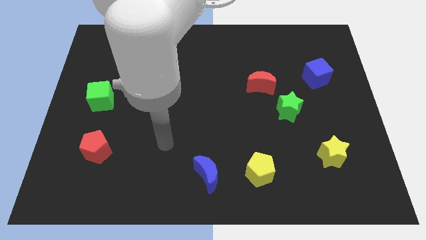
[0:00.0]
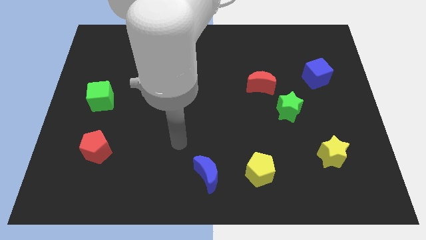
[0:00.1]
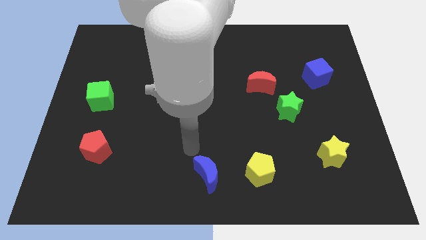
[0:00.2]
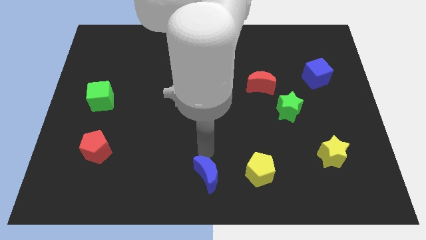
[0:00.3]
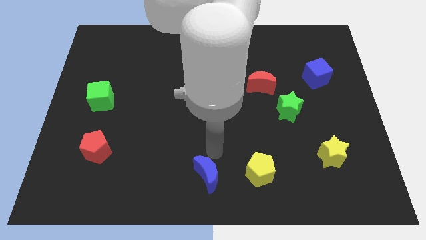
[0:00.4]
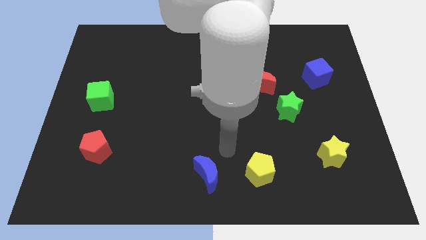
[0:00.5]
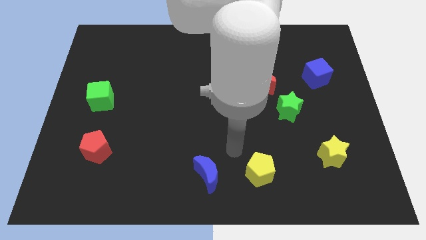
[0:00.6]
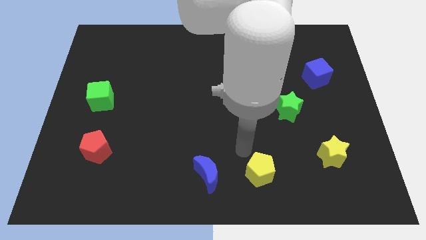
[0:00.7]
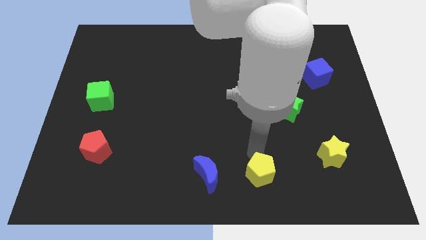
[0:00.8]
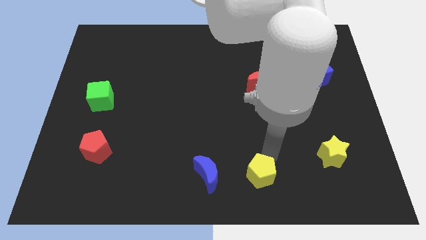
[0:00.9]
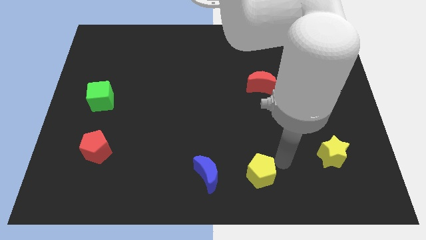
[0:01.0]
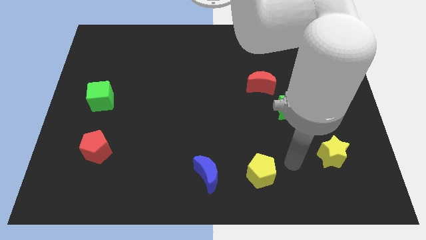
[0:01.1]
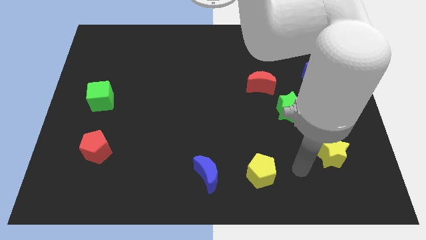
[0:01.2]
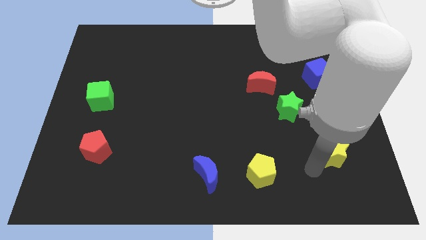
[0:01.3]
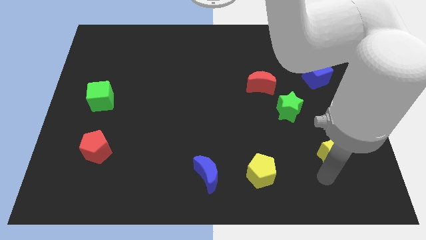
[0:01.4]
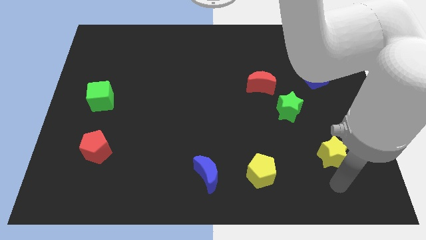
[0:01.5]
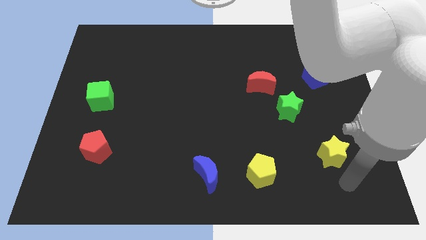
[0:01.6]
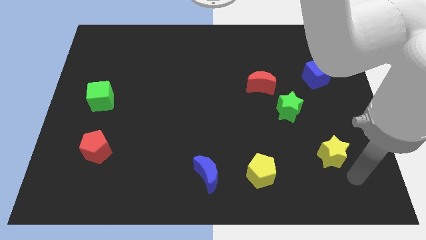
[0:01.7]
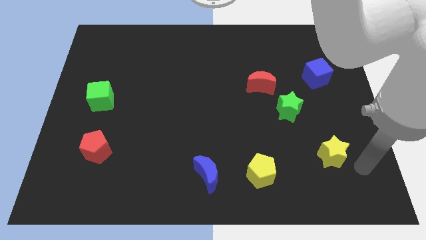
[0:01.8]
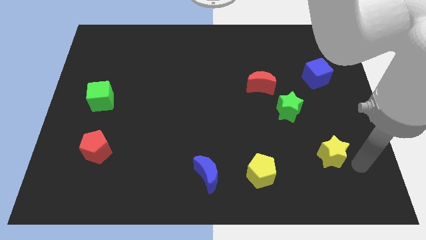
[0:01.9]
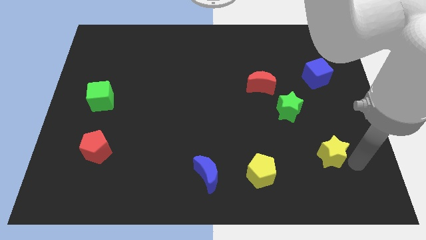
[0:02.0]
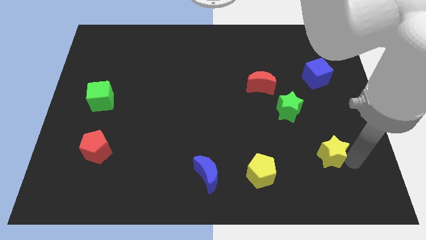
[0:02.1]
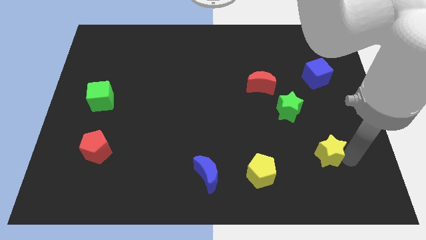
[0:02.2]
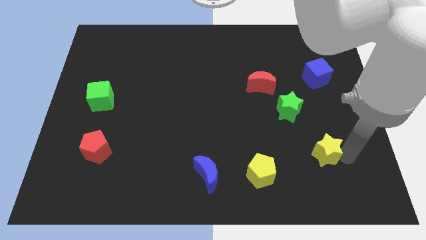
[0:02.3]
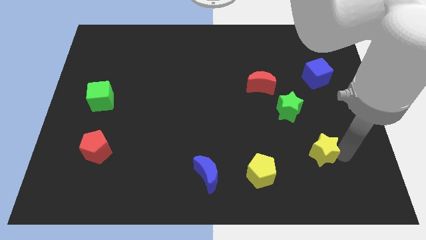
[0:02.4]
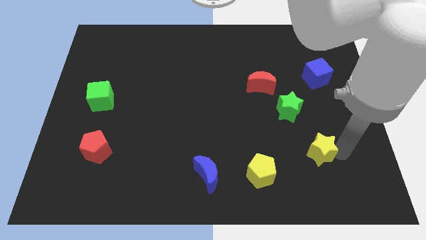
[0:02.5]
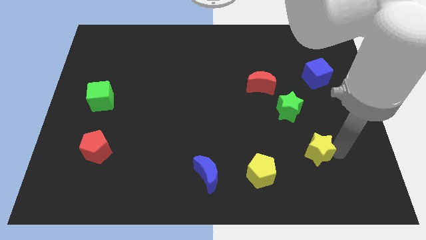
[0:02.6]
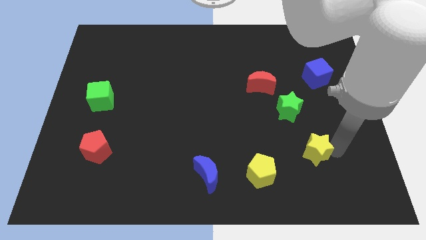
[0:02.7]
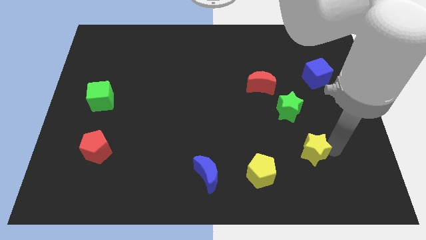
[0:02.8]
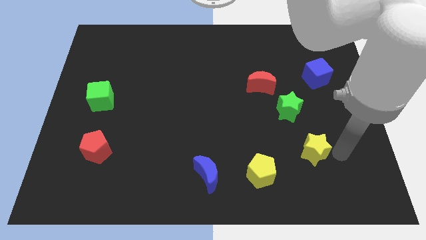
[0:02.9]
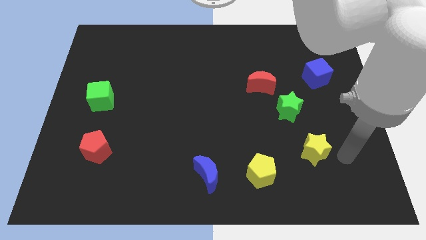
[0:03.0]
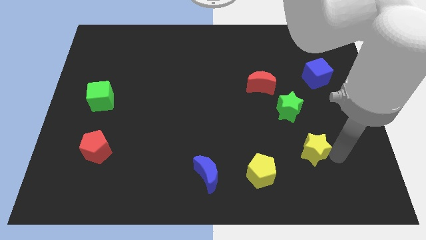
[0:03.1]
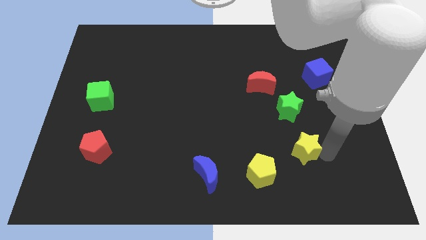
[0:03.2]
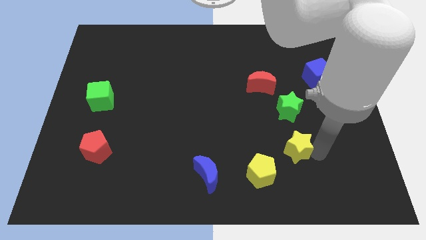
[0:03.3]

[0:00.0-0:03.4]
slide the yellow star a bit left

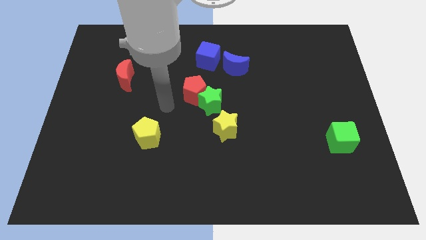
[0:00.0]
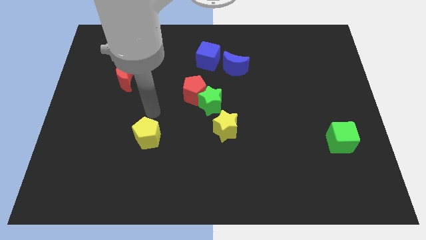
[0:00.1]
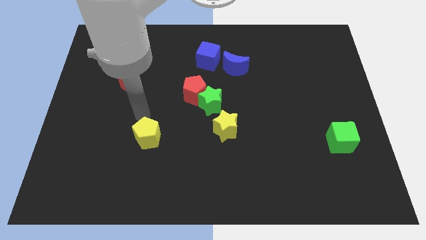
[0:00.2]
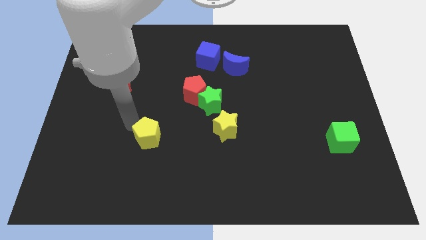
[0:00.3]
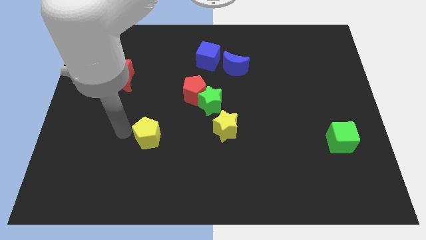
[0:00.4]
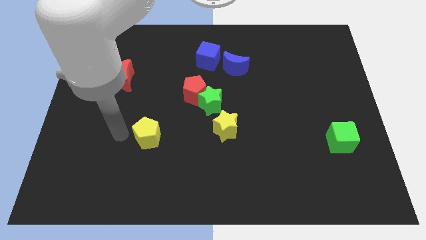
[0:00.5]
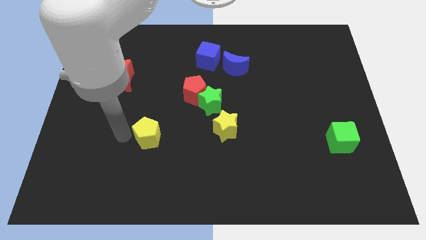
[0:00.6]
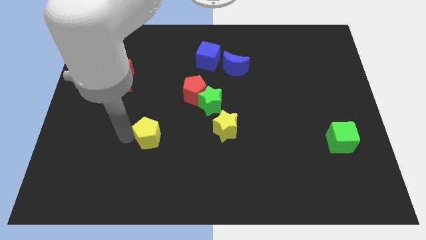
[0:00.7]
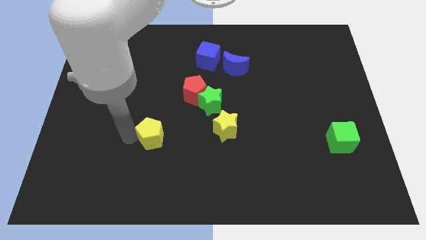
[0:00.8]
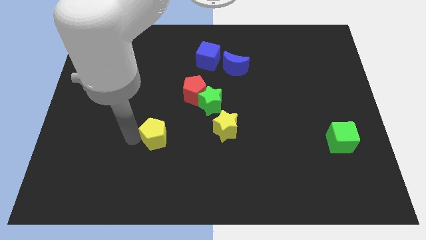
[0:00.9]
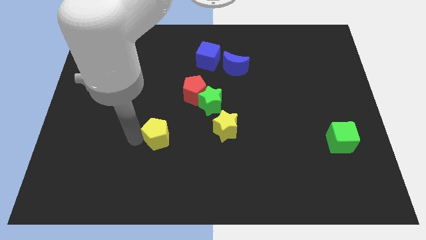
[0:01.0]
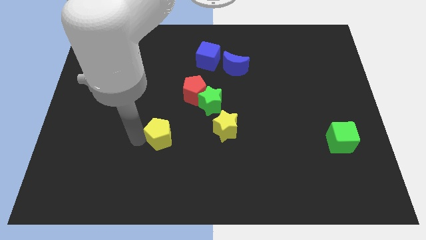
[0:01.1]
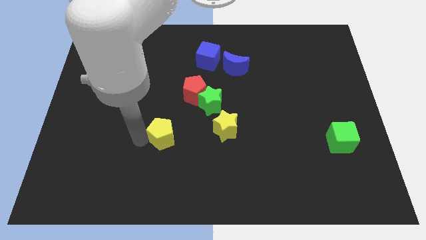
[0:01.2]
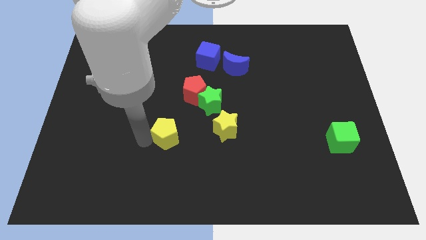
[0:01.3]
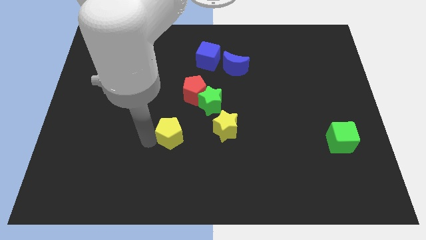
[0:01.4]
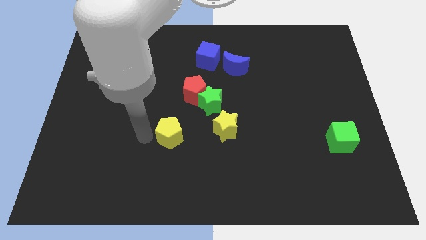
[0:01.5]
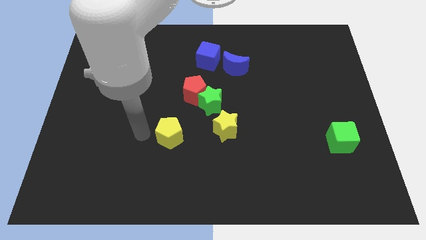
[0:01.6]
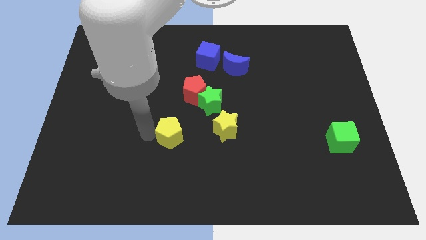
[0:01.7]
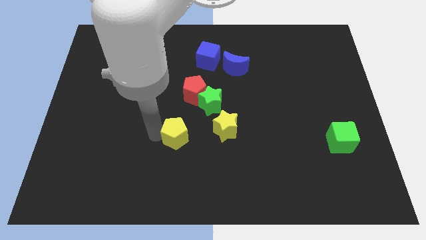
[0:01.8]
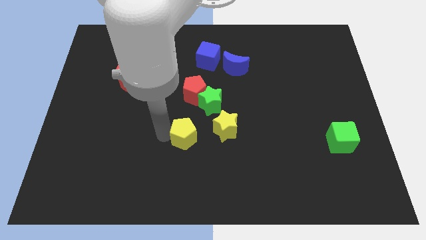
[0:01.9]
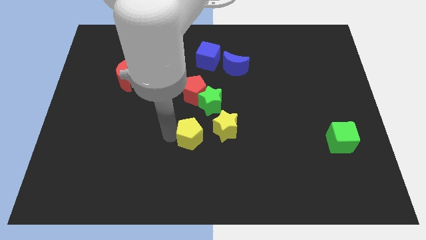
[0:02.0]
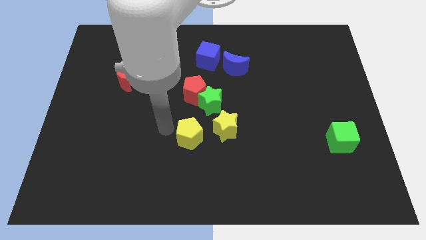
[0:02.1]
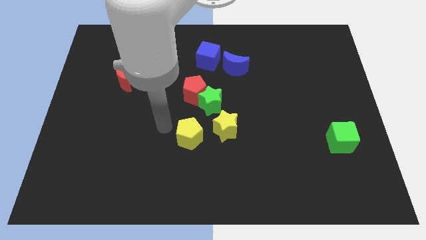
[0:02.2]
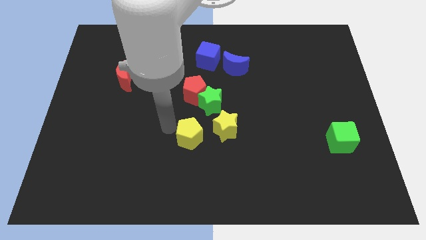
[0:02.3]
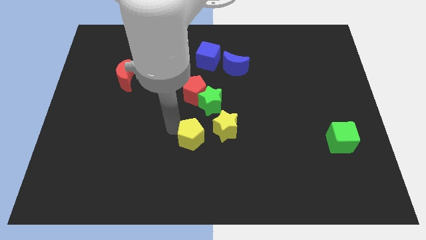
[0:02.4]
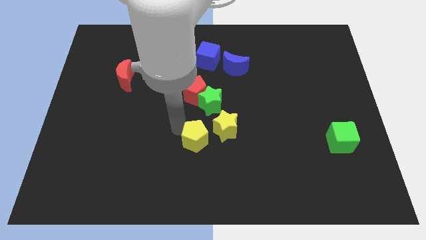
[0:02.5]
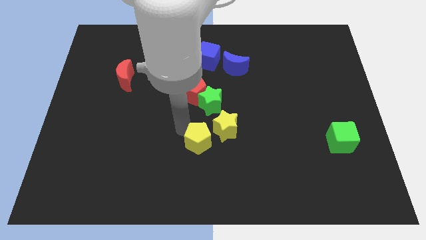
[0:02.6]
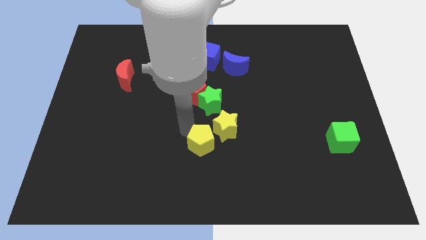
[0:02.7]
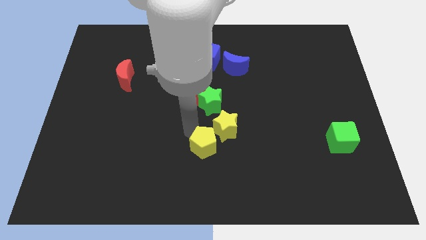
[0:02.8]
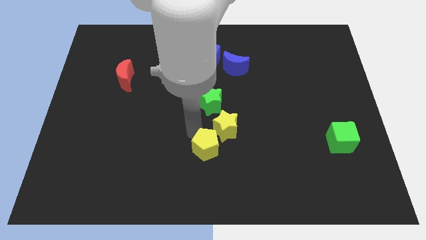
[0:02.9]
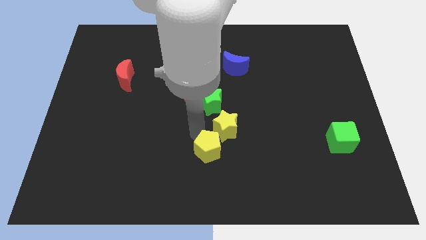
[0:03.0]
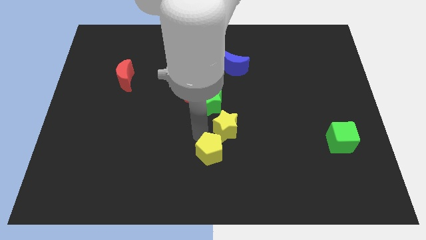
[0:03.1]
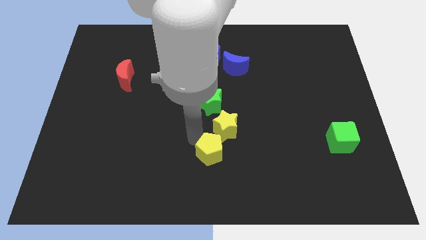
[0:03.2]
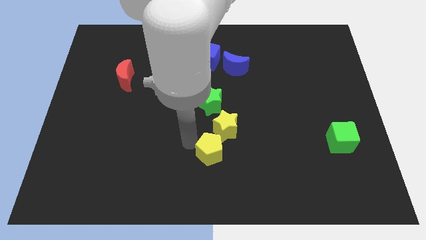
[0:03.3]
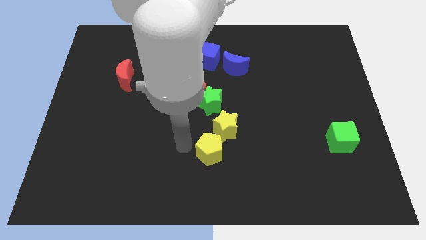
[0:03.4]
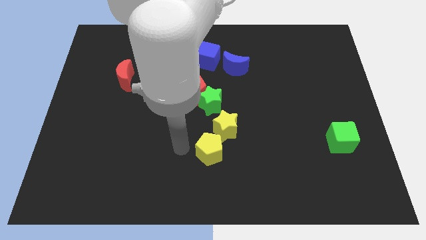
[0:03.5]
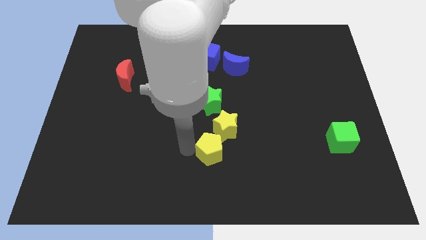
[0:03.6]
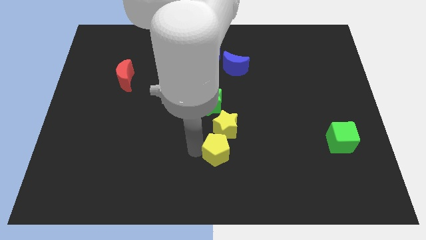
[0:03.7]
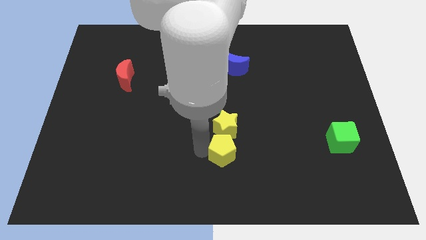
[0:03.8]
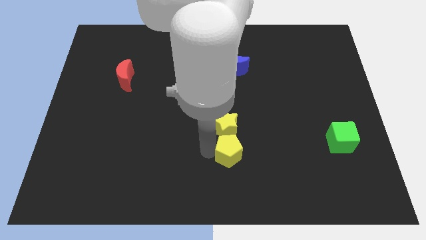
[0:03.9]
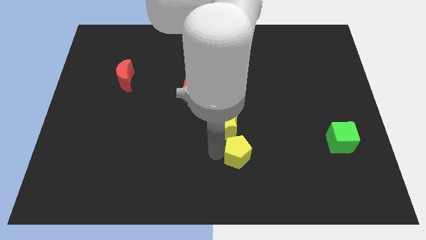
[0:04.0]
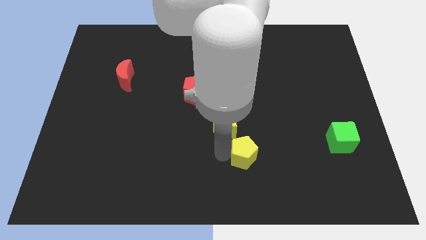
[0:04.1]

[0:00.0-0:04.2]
slide the yellow pentagon right
